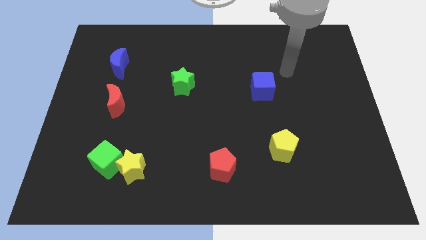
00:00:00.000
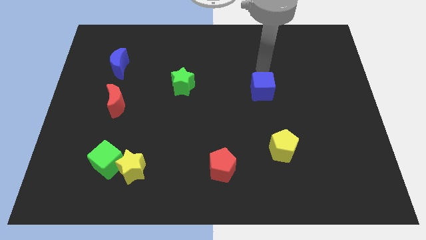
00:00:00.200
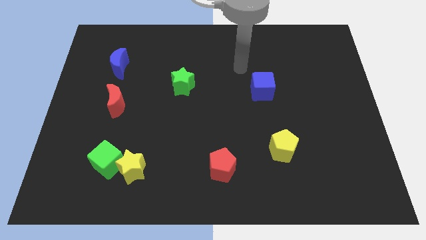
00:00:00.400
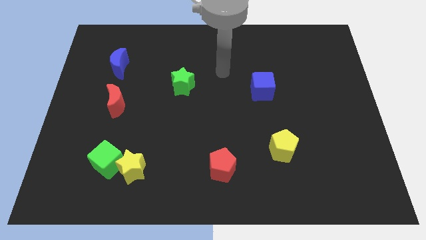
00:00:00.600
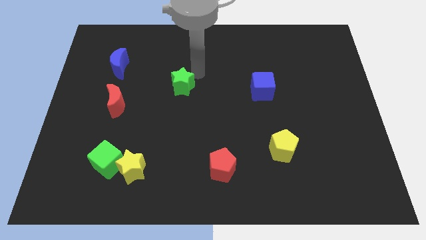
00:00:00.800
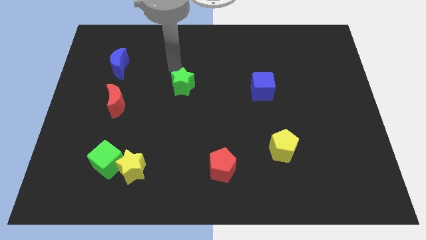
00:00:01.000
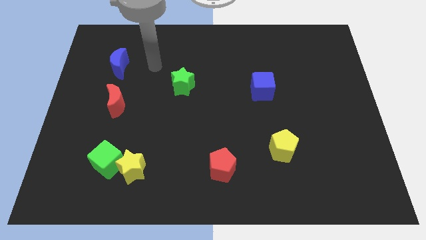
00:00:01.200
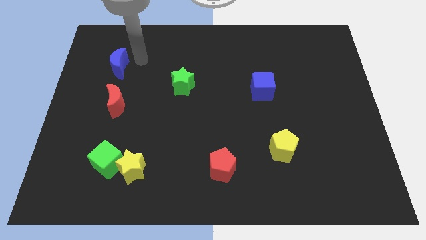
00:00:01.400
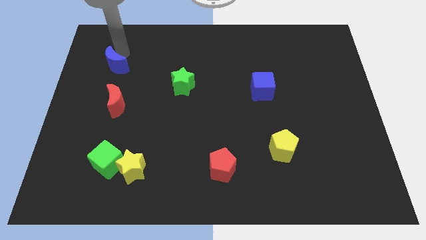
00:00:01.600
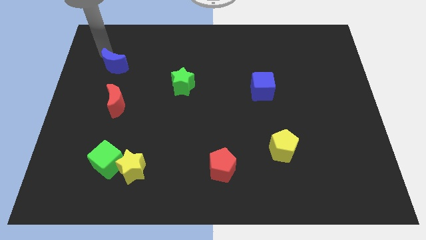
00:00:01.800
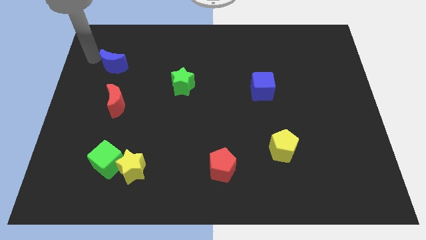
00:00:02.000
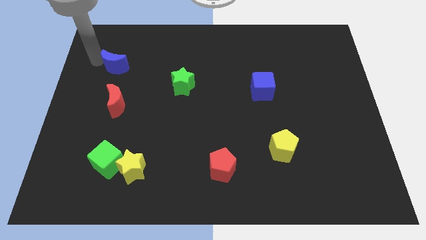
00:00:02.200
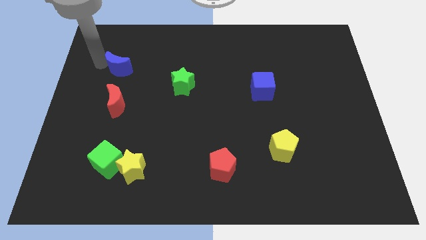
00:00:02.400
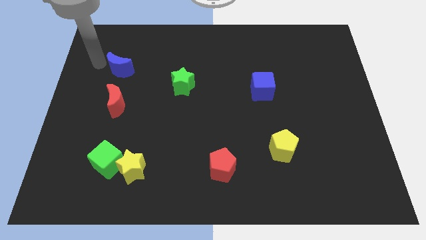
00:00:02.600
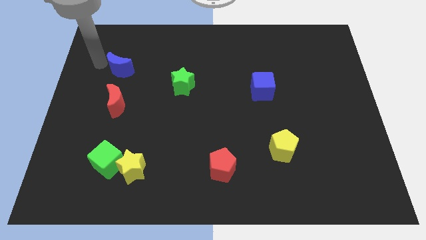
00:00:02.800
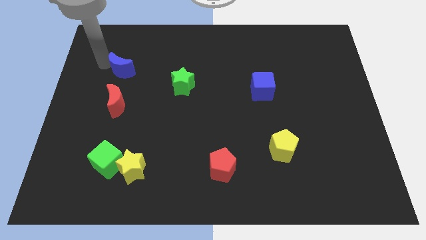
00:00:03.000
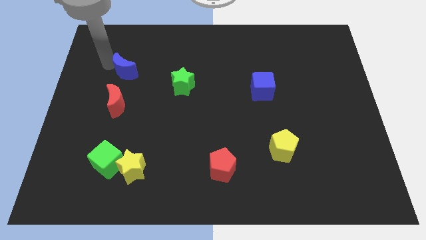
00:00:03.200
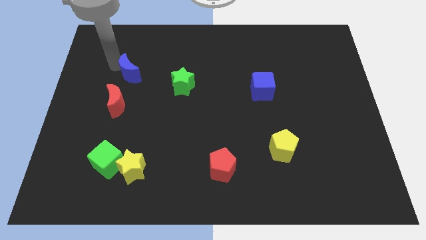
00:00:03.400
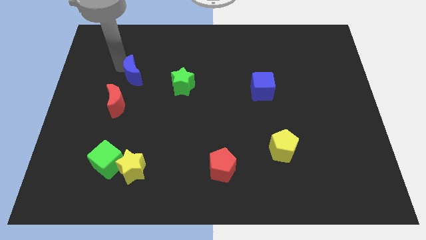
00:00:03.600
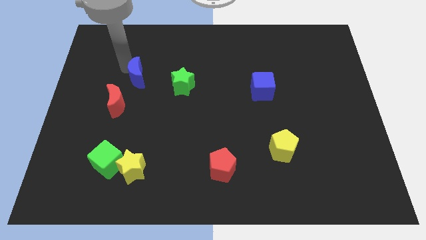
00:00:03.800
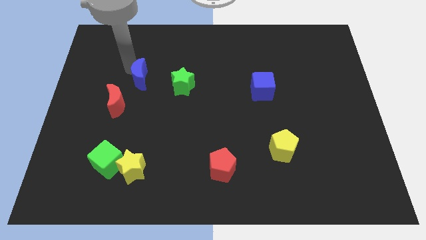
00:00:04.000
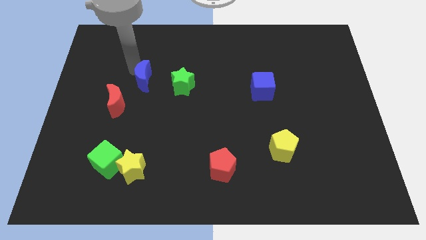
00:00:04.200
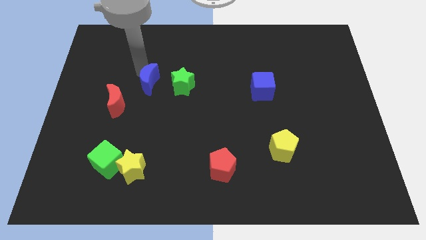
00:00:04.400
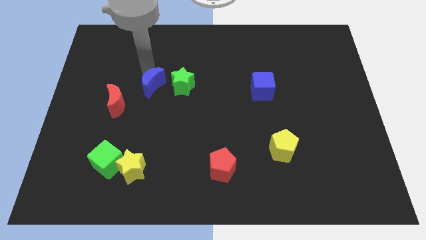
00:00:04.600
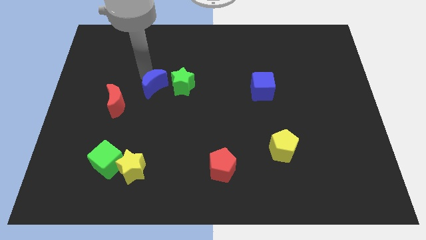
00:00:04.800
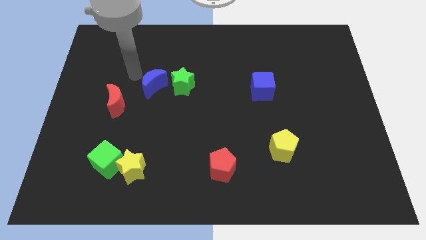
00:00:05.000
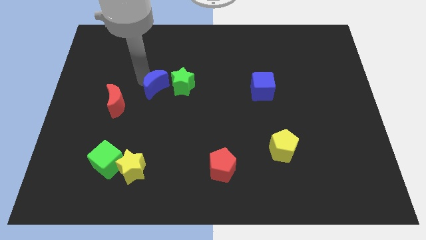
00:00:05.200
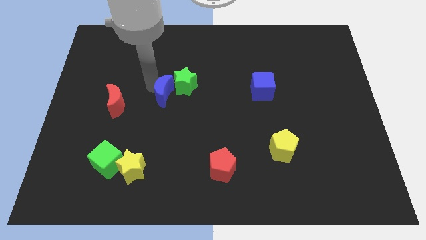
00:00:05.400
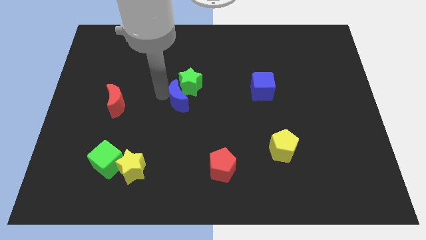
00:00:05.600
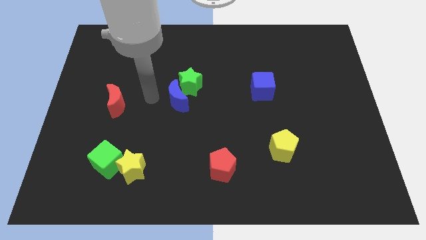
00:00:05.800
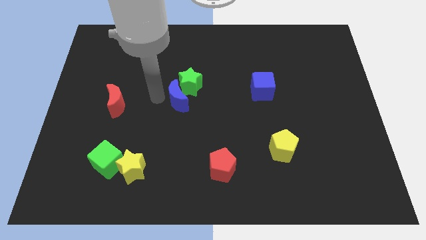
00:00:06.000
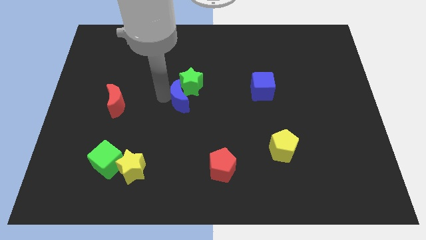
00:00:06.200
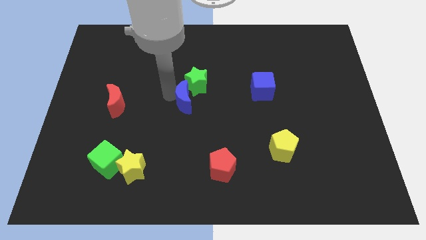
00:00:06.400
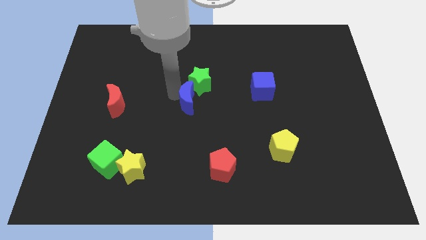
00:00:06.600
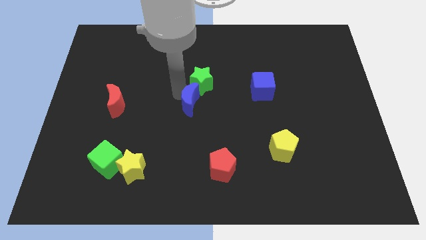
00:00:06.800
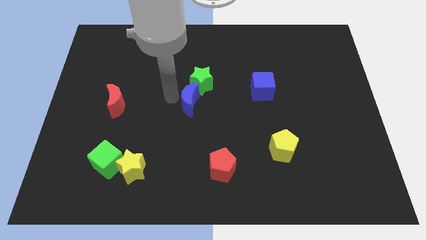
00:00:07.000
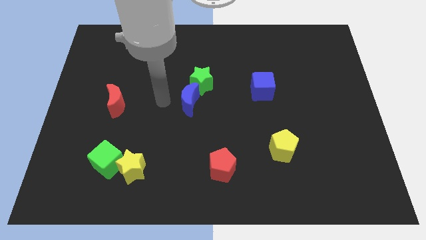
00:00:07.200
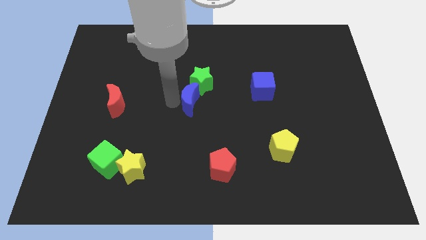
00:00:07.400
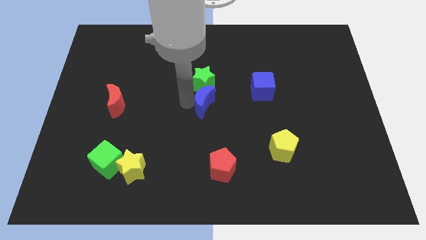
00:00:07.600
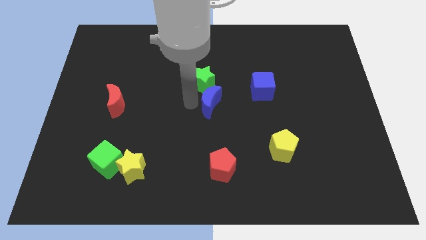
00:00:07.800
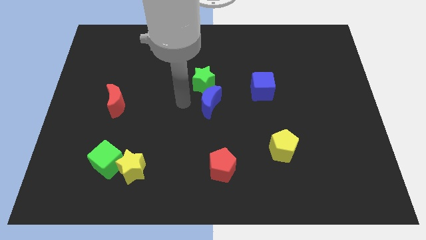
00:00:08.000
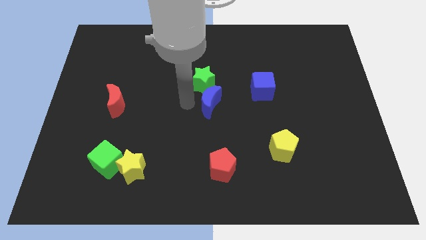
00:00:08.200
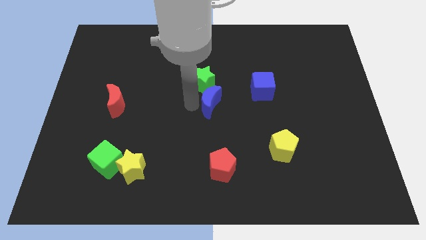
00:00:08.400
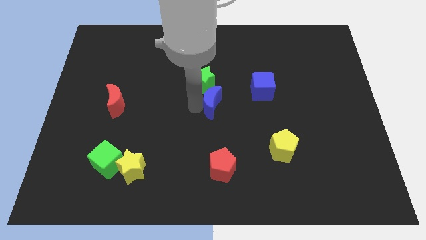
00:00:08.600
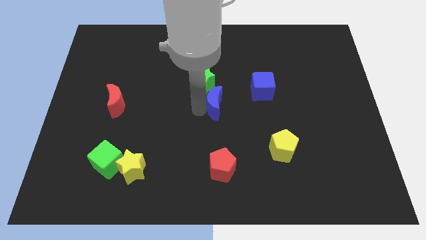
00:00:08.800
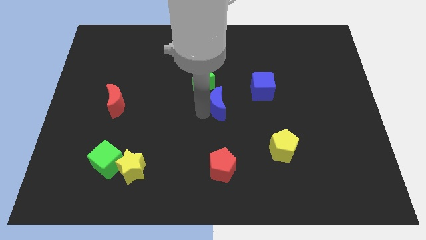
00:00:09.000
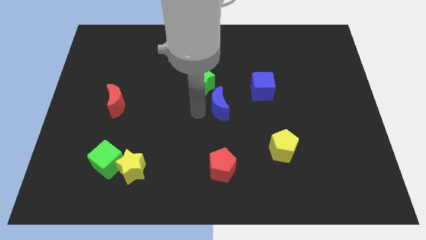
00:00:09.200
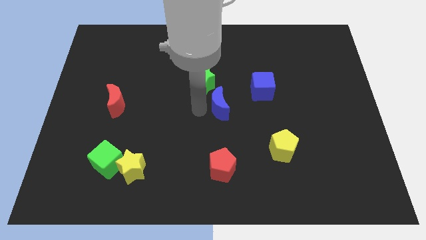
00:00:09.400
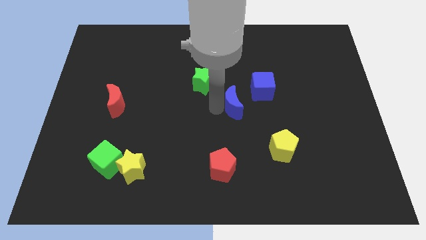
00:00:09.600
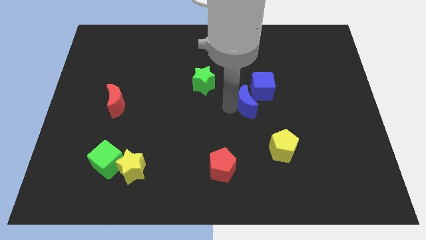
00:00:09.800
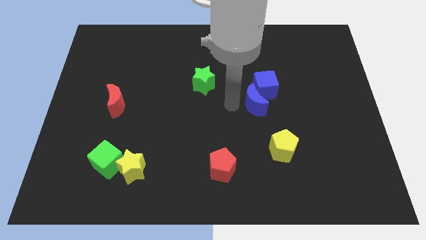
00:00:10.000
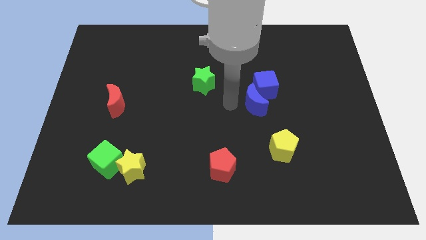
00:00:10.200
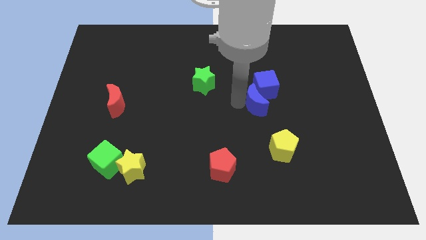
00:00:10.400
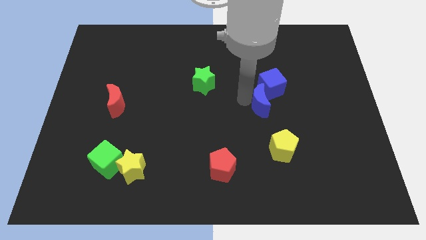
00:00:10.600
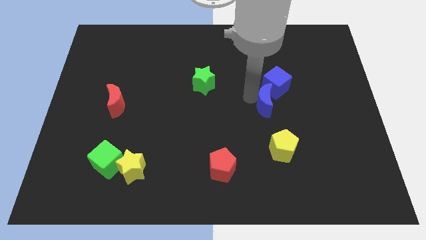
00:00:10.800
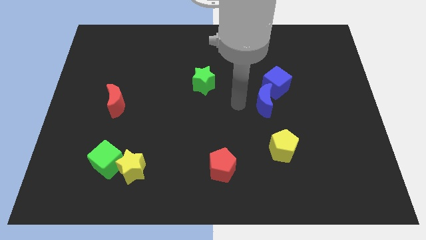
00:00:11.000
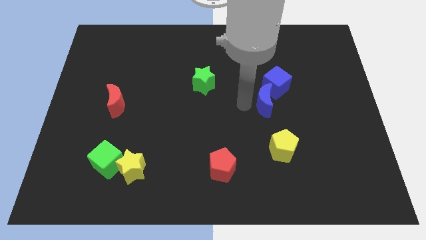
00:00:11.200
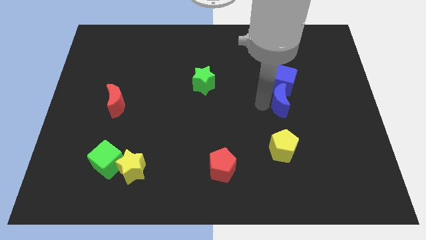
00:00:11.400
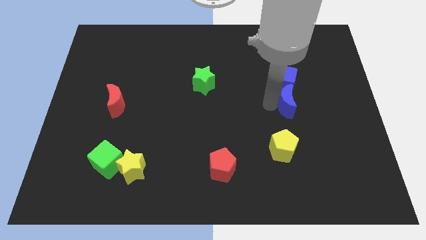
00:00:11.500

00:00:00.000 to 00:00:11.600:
put the blue moon to the bottom right side of the blue cube

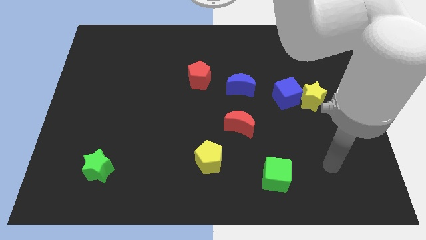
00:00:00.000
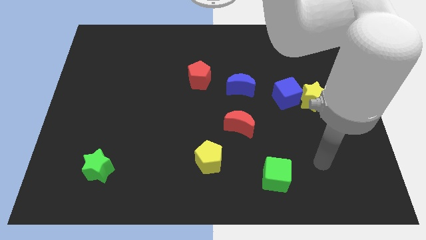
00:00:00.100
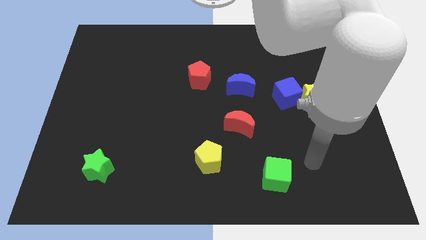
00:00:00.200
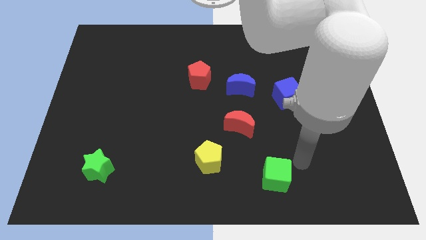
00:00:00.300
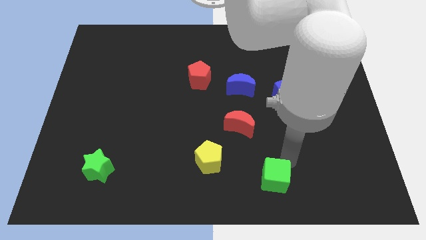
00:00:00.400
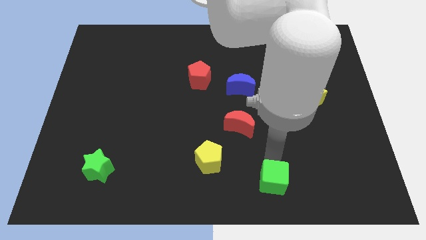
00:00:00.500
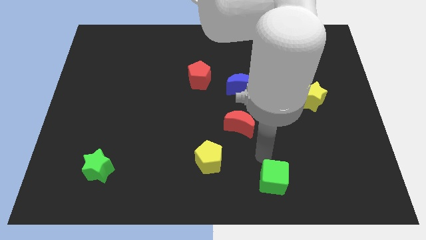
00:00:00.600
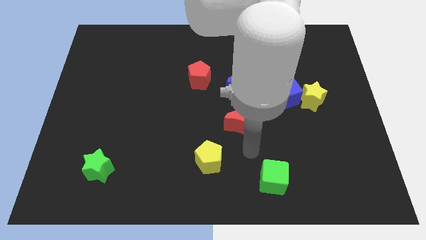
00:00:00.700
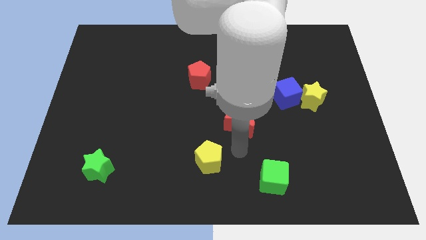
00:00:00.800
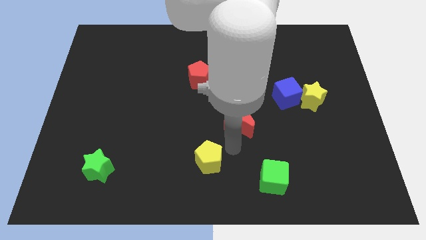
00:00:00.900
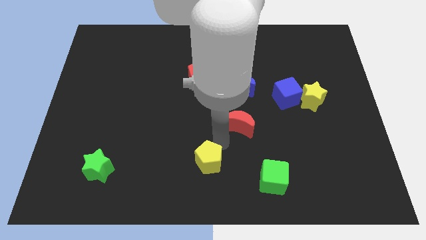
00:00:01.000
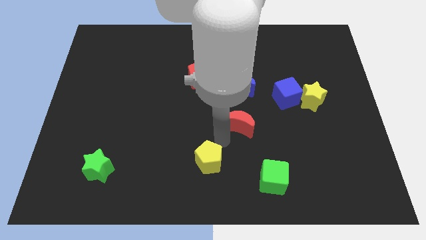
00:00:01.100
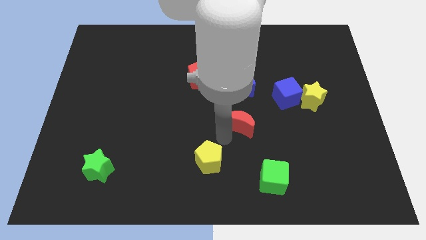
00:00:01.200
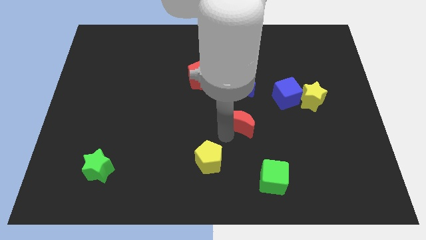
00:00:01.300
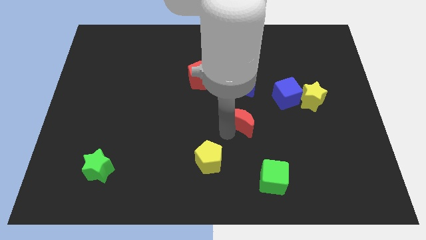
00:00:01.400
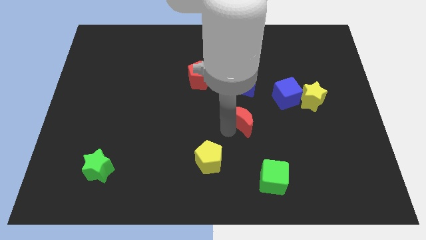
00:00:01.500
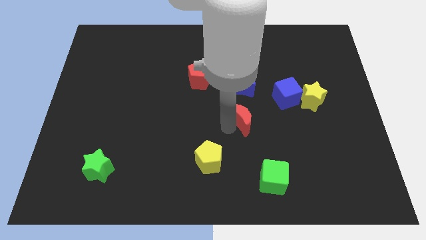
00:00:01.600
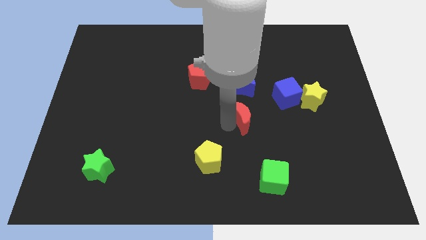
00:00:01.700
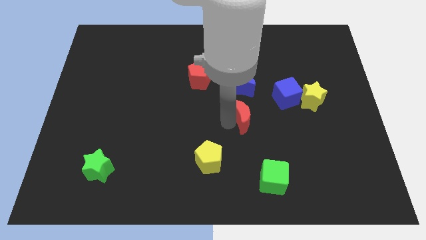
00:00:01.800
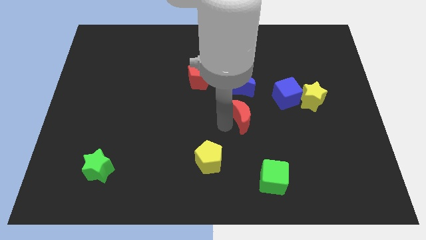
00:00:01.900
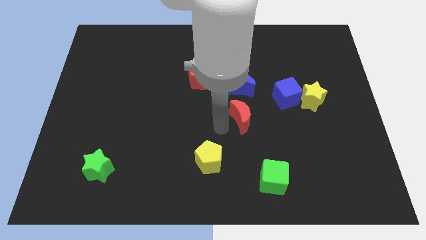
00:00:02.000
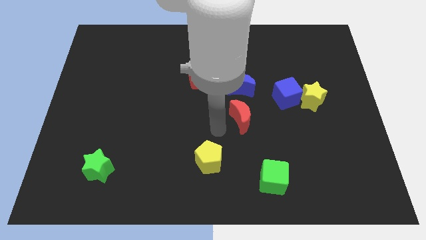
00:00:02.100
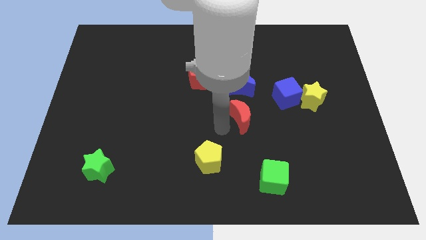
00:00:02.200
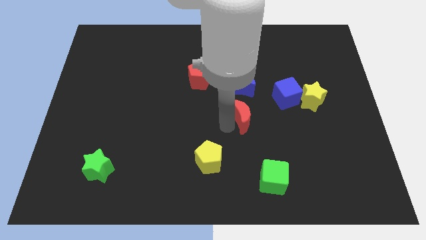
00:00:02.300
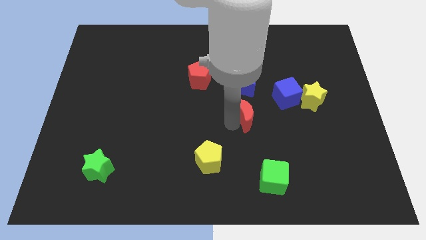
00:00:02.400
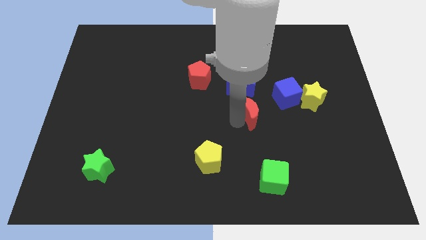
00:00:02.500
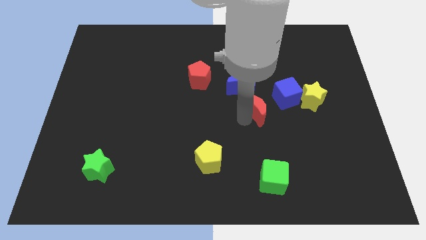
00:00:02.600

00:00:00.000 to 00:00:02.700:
put the red moon to the left of the yellow star
